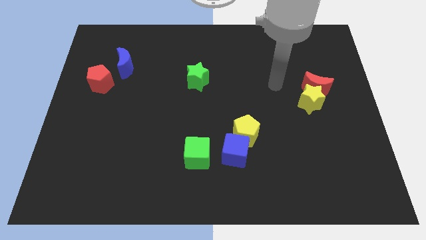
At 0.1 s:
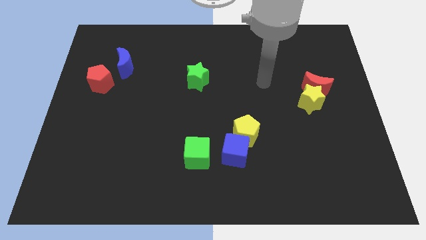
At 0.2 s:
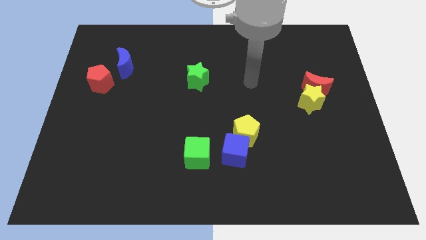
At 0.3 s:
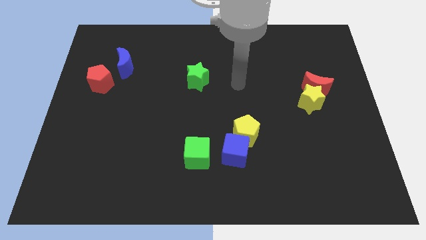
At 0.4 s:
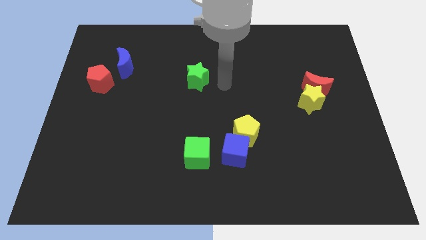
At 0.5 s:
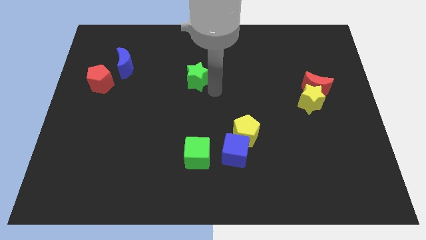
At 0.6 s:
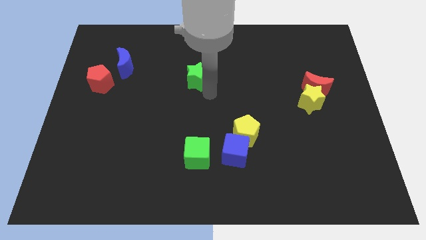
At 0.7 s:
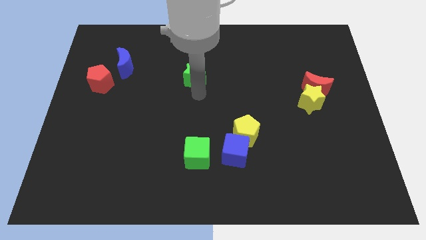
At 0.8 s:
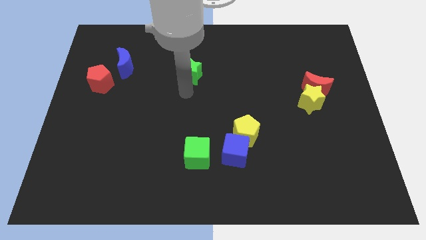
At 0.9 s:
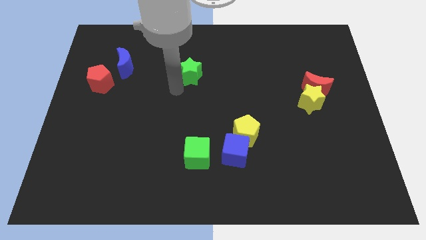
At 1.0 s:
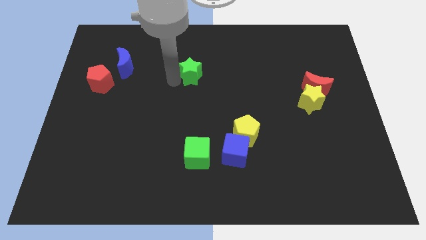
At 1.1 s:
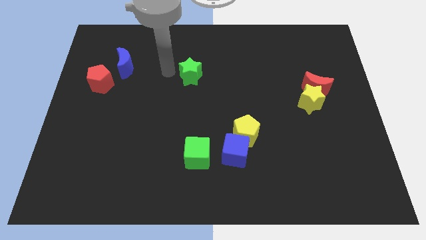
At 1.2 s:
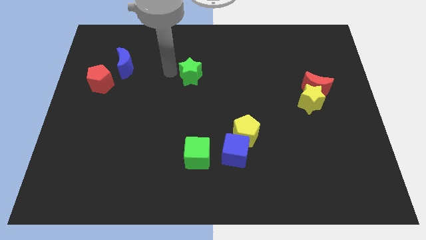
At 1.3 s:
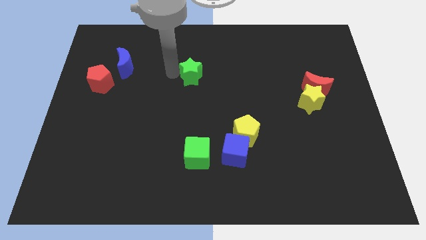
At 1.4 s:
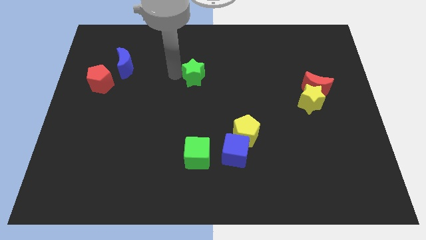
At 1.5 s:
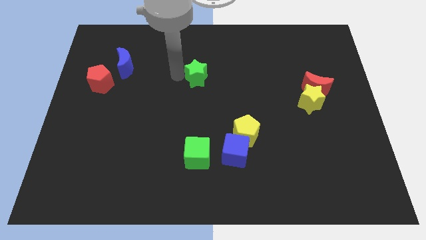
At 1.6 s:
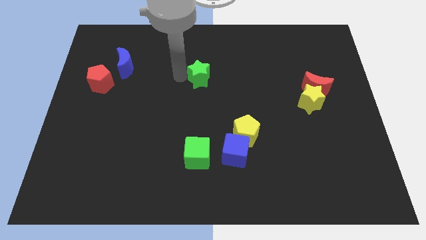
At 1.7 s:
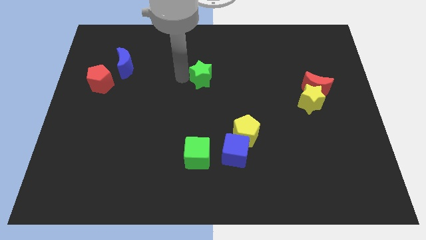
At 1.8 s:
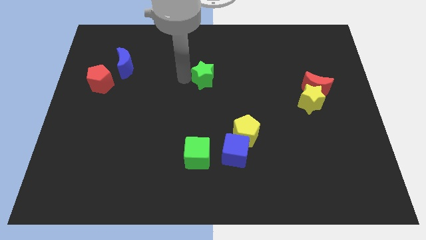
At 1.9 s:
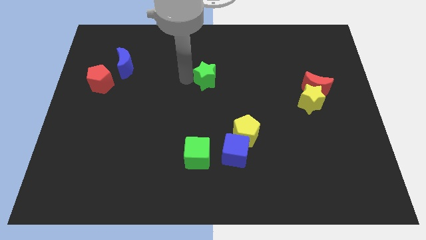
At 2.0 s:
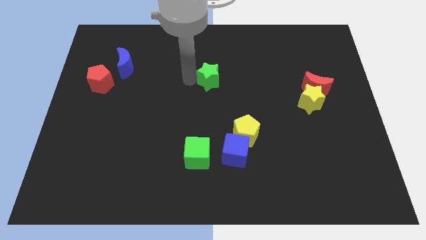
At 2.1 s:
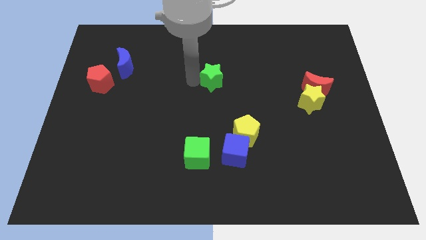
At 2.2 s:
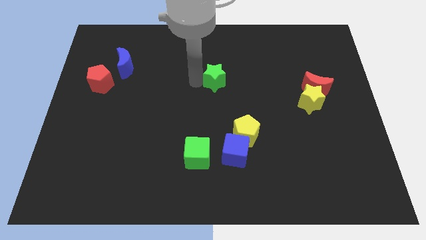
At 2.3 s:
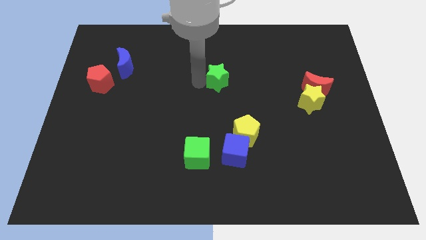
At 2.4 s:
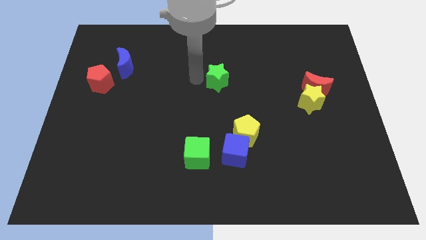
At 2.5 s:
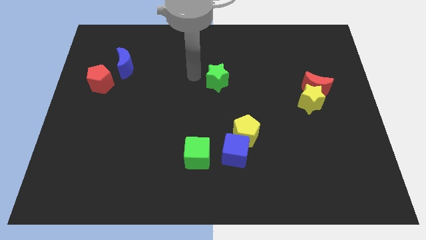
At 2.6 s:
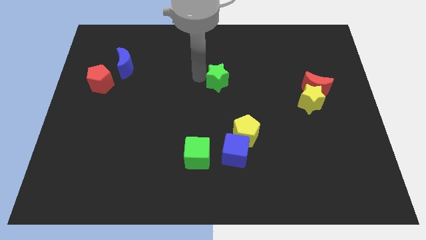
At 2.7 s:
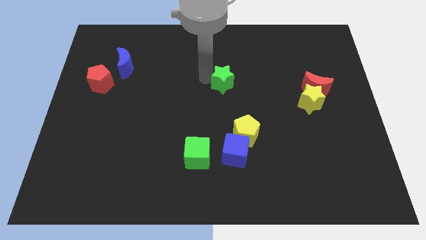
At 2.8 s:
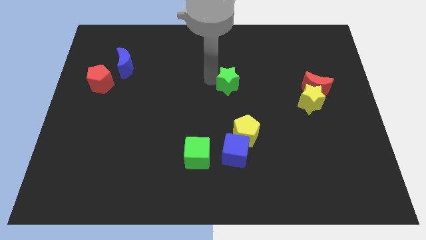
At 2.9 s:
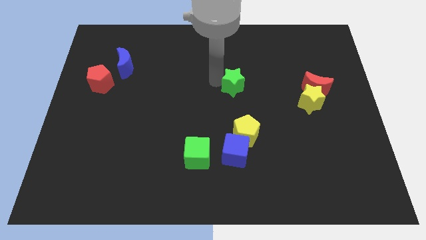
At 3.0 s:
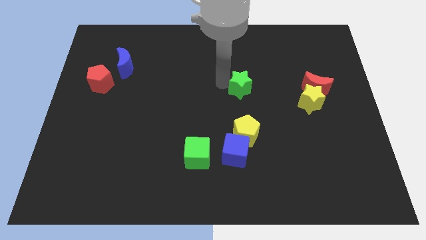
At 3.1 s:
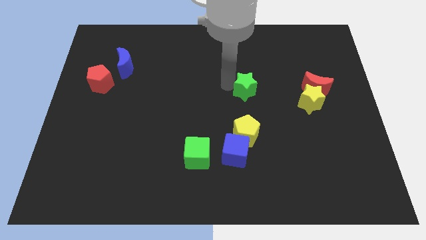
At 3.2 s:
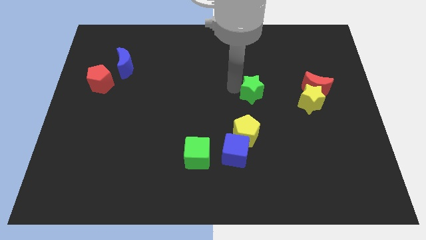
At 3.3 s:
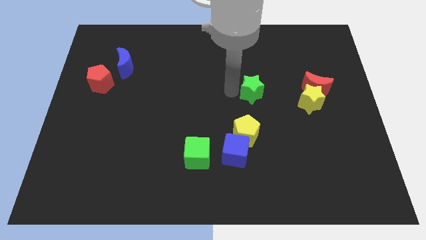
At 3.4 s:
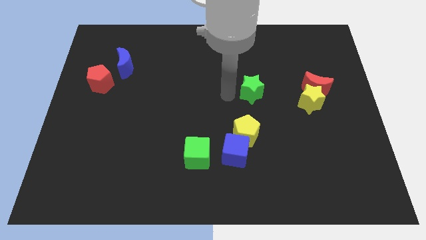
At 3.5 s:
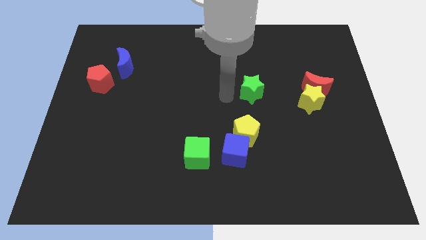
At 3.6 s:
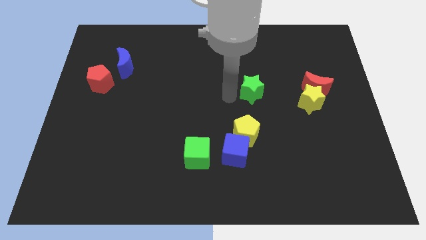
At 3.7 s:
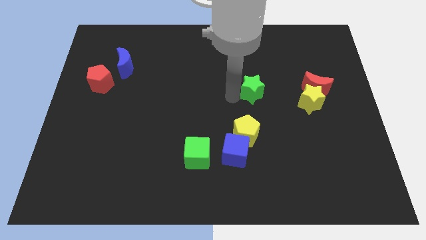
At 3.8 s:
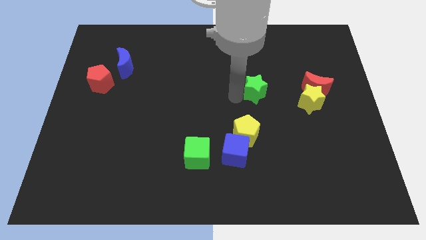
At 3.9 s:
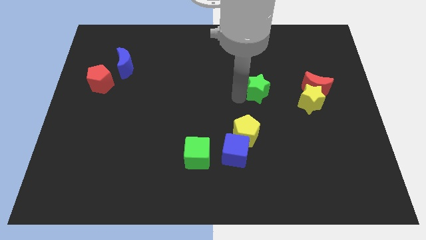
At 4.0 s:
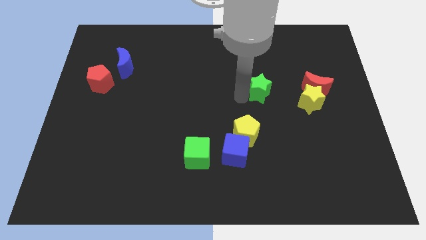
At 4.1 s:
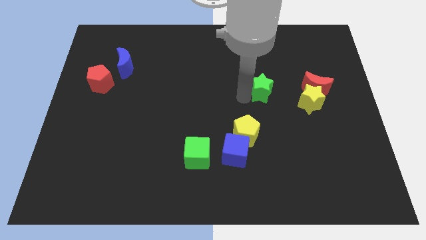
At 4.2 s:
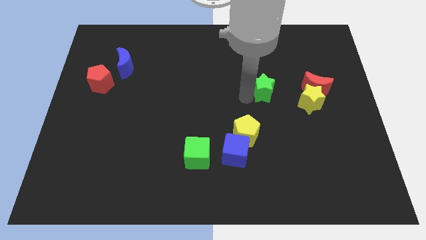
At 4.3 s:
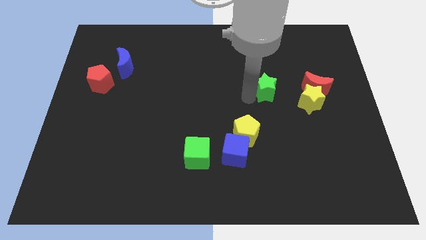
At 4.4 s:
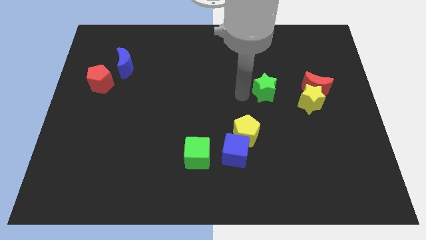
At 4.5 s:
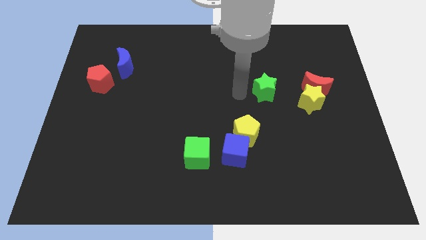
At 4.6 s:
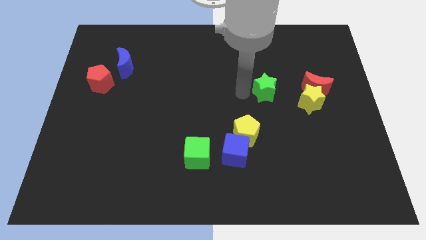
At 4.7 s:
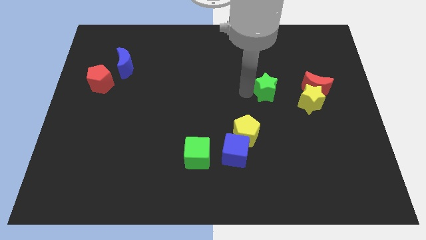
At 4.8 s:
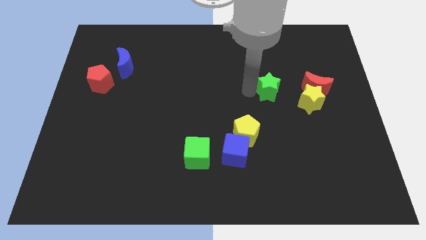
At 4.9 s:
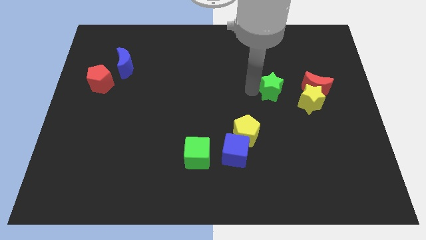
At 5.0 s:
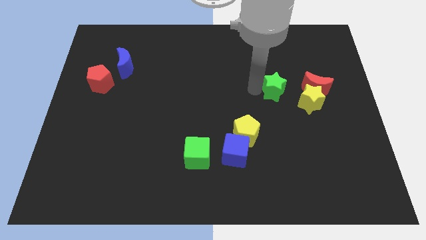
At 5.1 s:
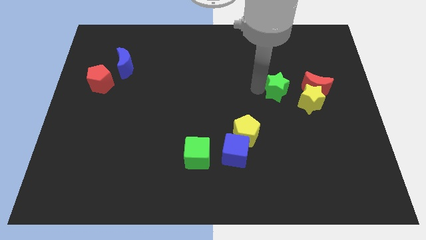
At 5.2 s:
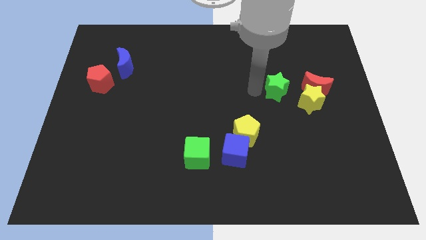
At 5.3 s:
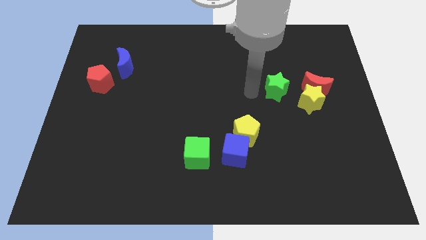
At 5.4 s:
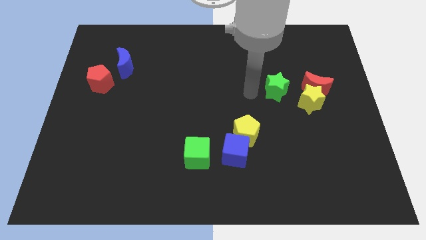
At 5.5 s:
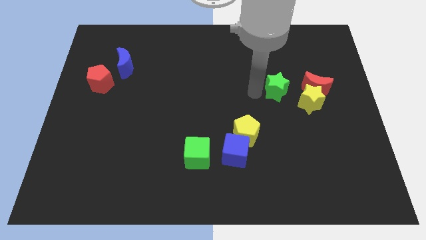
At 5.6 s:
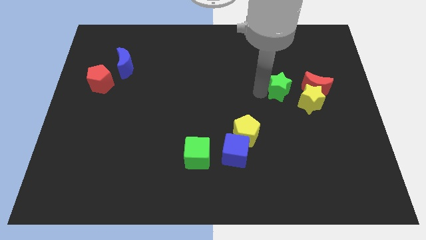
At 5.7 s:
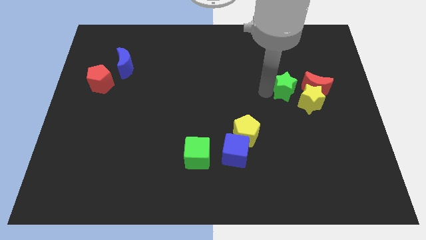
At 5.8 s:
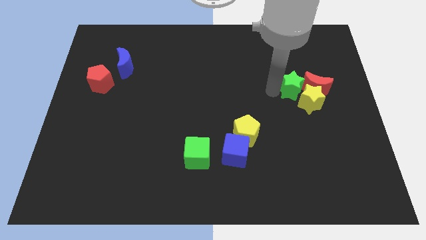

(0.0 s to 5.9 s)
put the green star next to the red moon

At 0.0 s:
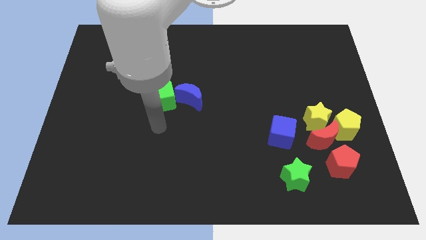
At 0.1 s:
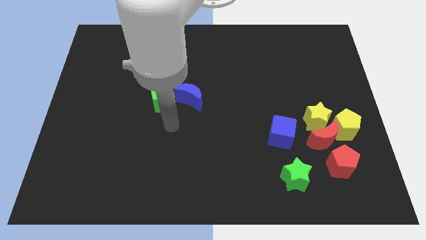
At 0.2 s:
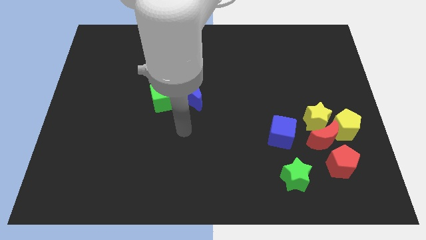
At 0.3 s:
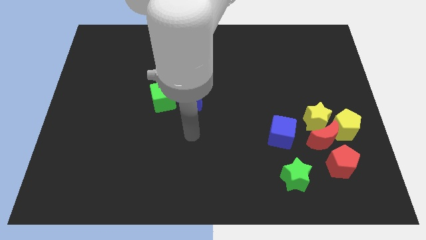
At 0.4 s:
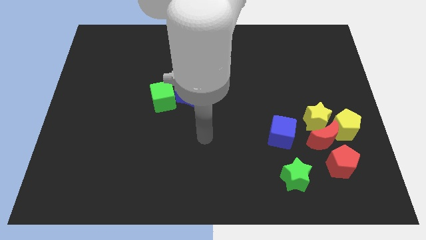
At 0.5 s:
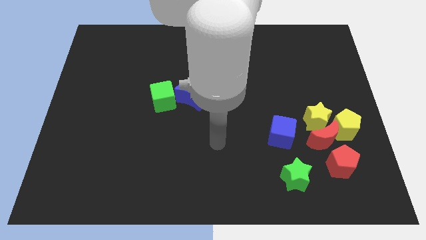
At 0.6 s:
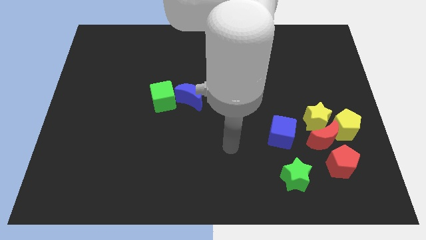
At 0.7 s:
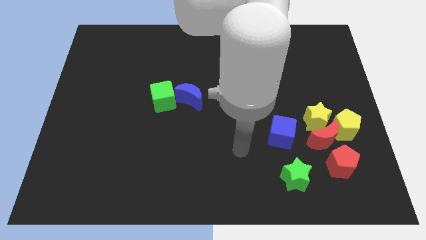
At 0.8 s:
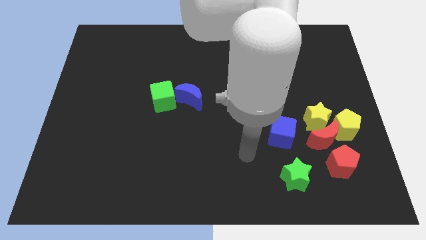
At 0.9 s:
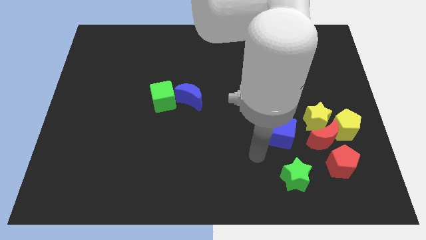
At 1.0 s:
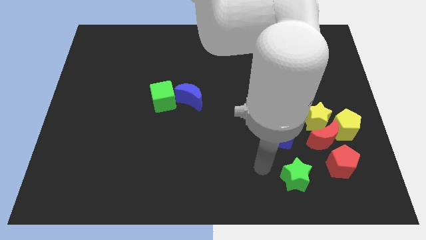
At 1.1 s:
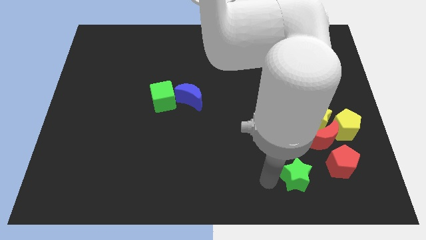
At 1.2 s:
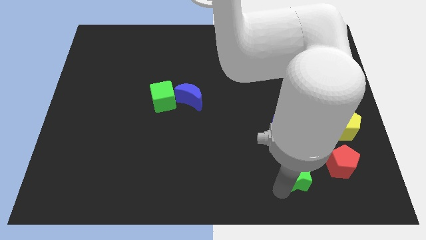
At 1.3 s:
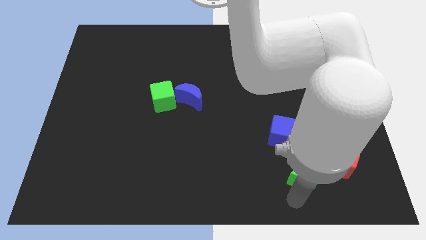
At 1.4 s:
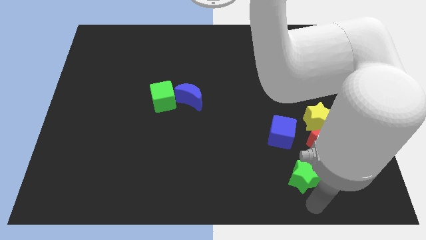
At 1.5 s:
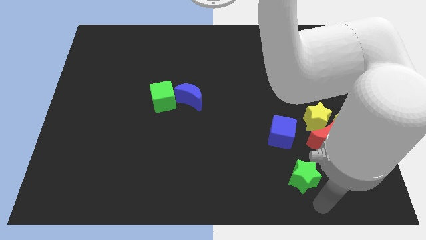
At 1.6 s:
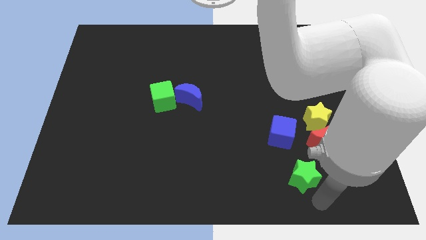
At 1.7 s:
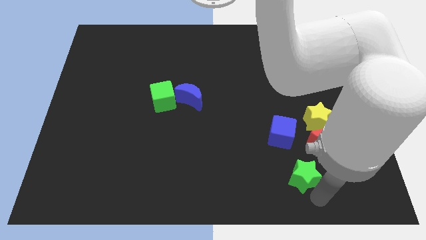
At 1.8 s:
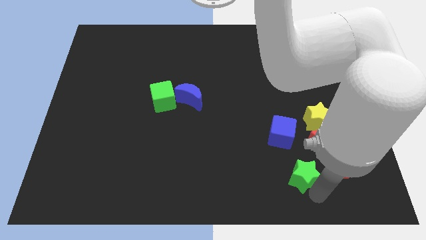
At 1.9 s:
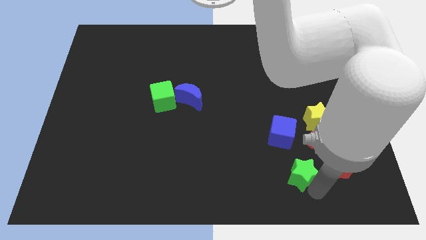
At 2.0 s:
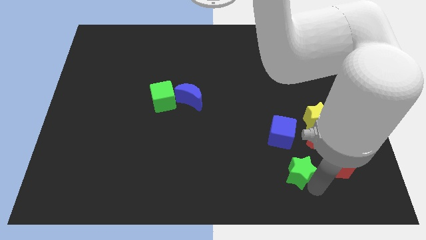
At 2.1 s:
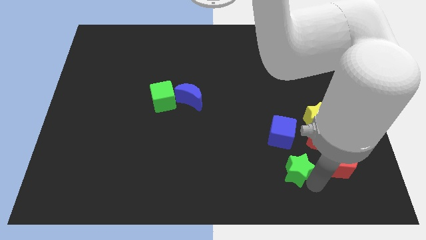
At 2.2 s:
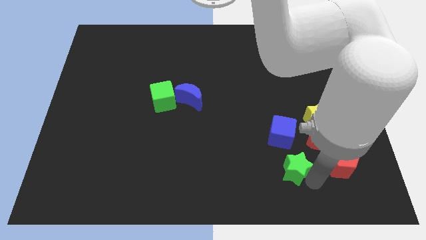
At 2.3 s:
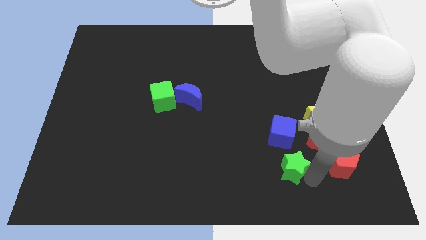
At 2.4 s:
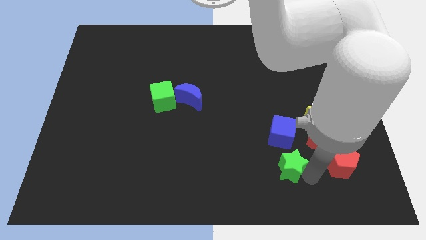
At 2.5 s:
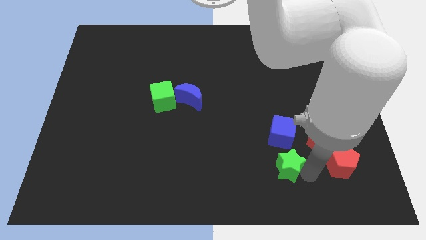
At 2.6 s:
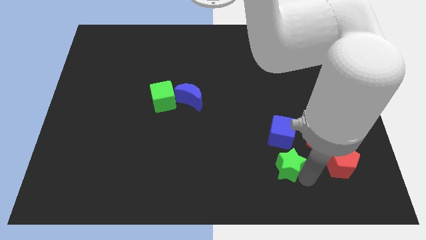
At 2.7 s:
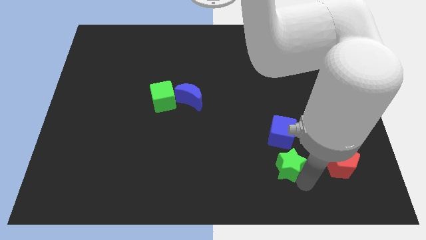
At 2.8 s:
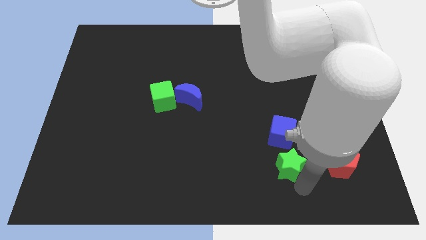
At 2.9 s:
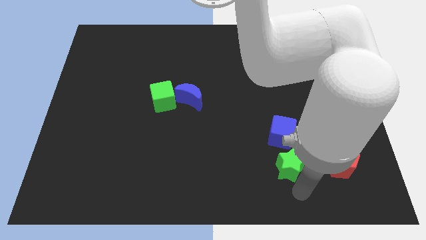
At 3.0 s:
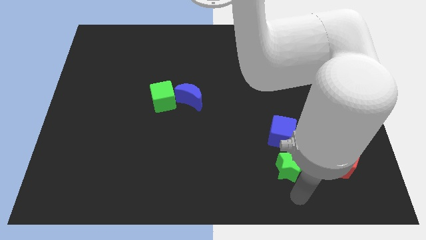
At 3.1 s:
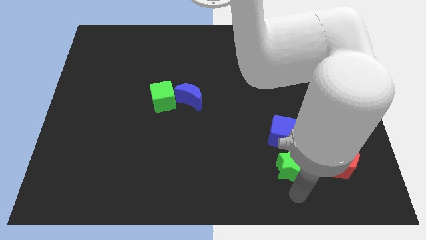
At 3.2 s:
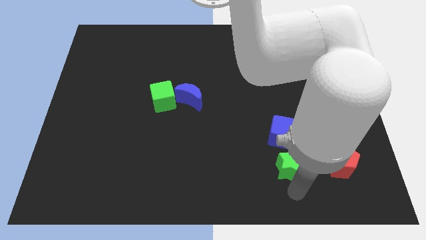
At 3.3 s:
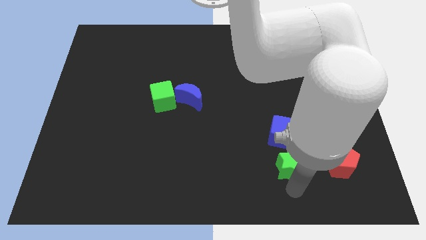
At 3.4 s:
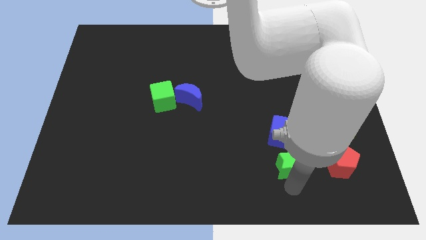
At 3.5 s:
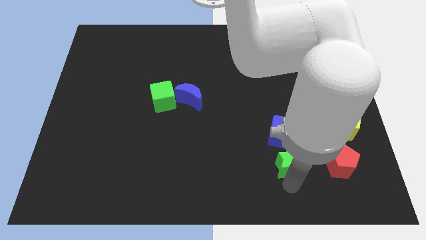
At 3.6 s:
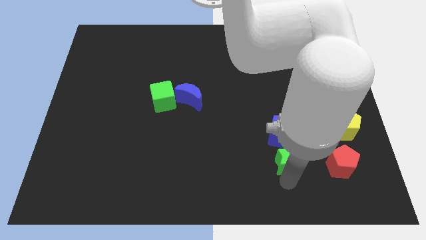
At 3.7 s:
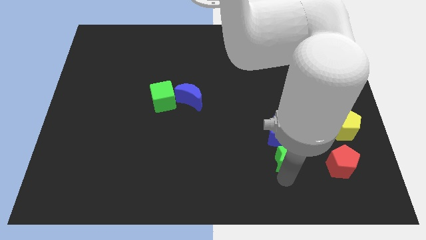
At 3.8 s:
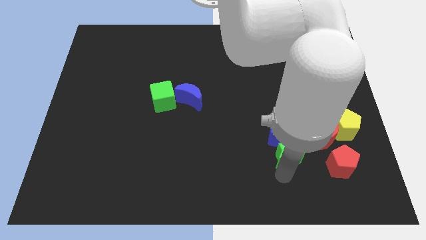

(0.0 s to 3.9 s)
move the green star towards the blue cube
